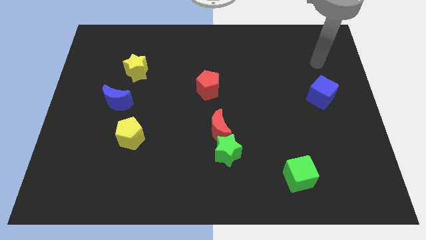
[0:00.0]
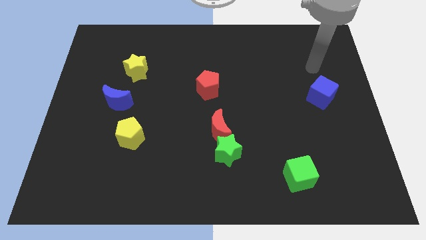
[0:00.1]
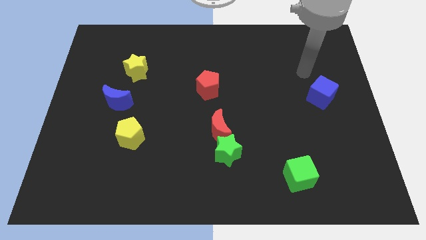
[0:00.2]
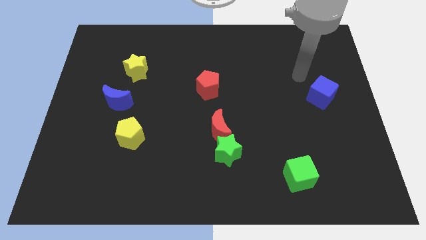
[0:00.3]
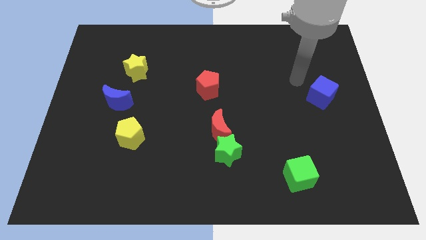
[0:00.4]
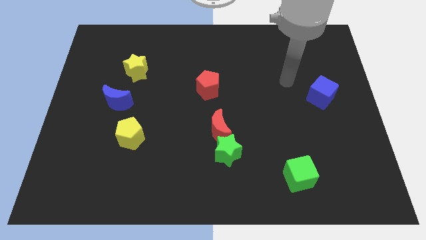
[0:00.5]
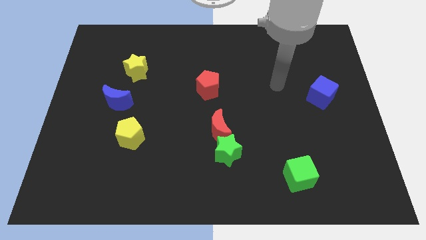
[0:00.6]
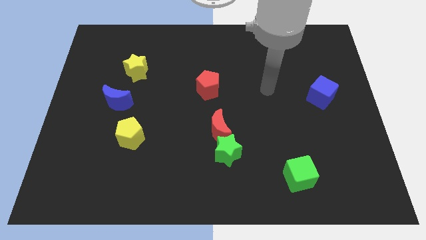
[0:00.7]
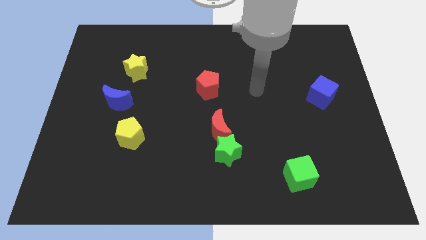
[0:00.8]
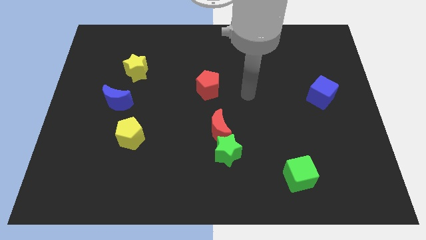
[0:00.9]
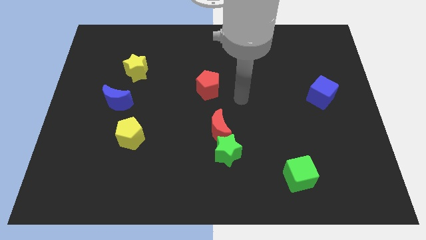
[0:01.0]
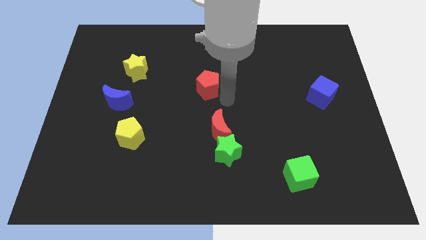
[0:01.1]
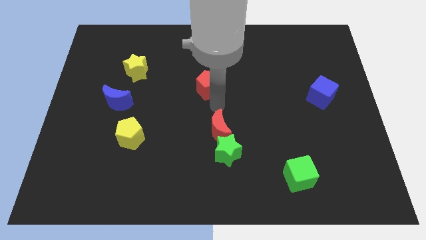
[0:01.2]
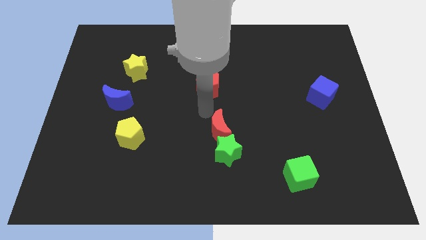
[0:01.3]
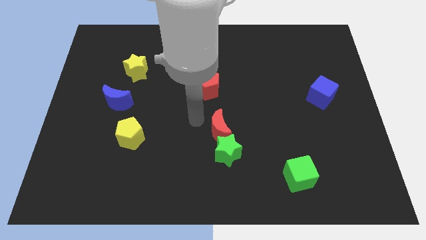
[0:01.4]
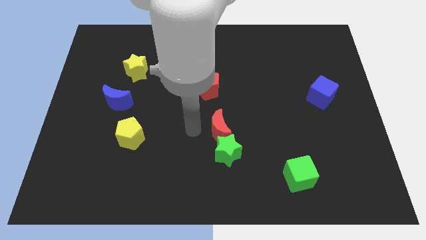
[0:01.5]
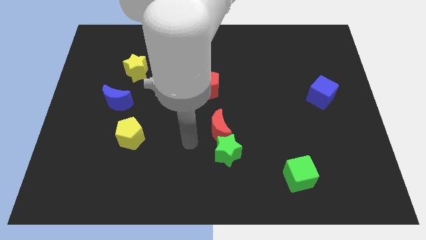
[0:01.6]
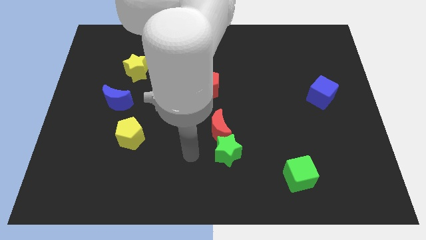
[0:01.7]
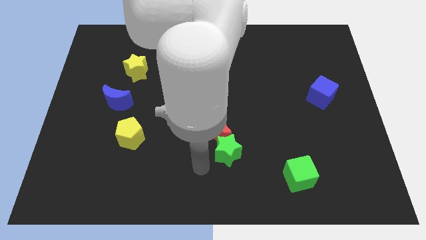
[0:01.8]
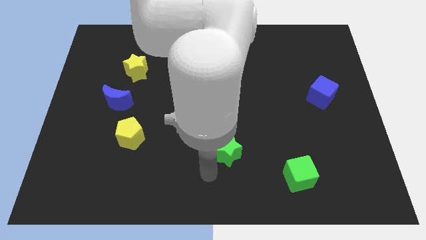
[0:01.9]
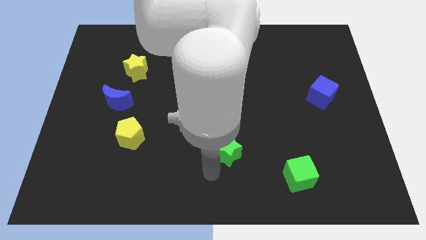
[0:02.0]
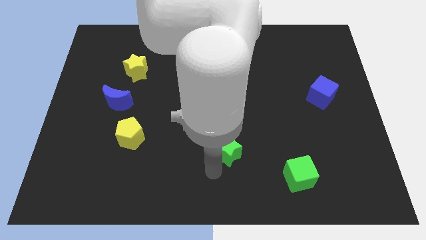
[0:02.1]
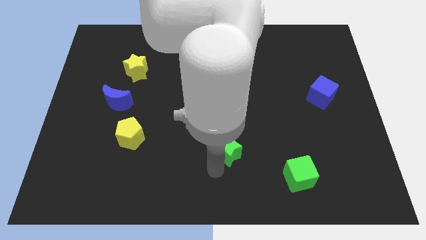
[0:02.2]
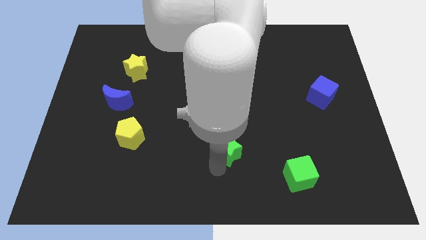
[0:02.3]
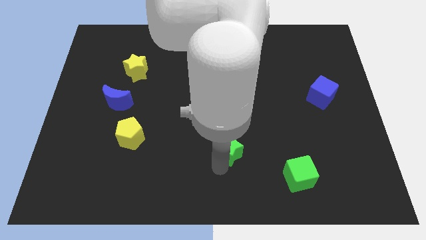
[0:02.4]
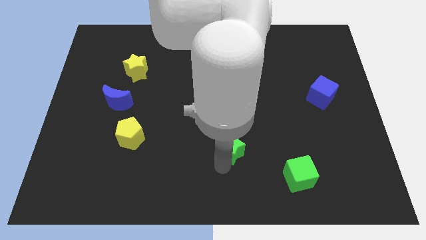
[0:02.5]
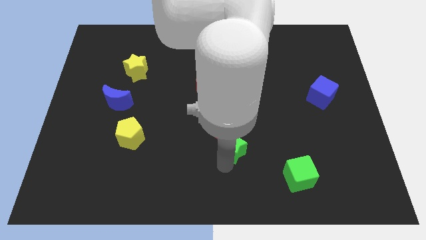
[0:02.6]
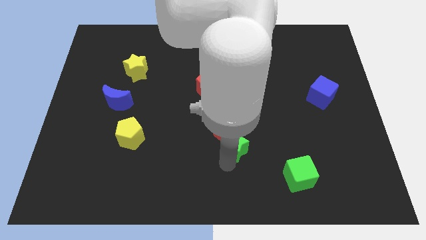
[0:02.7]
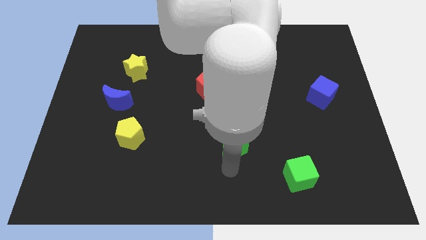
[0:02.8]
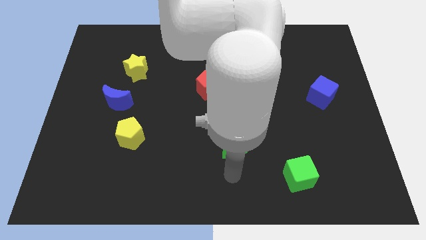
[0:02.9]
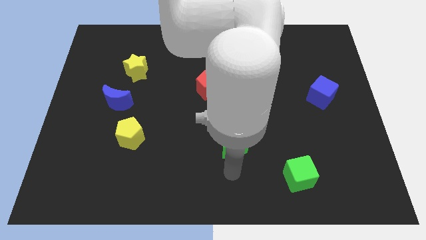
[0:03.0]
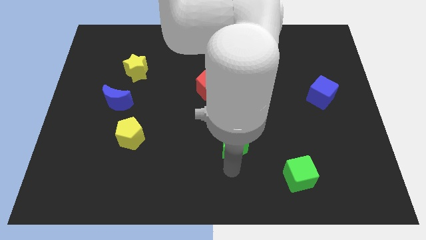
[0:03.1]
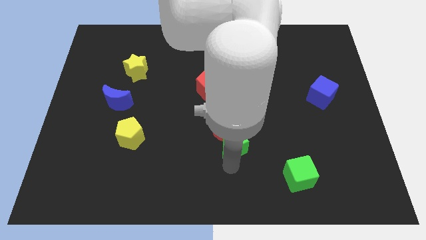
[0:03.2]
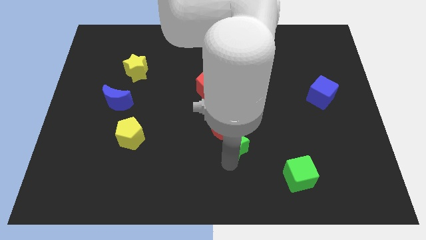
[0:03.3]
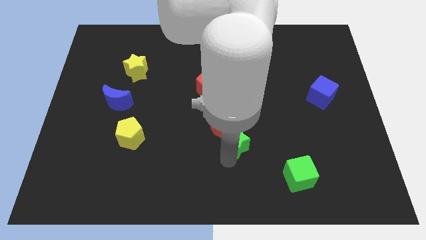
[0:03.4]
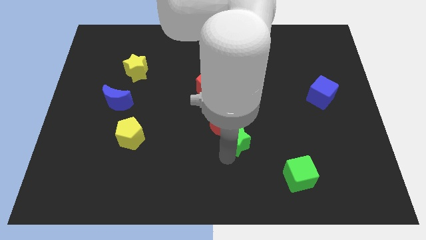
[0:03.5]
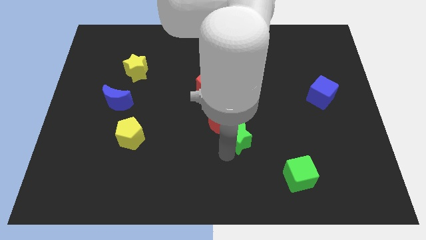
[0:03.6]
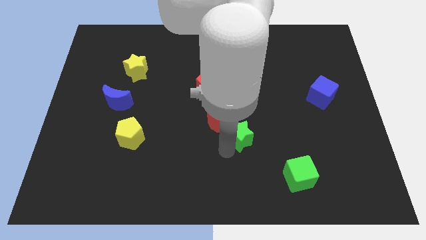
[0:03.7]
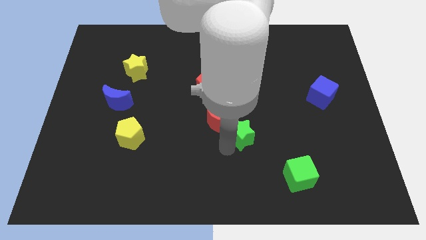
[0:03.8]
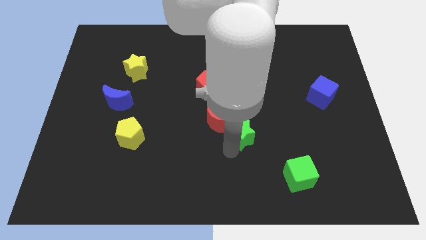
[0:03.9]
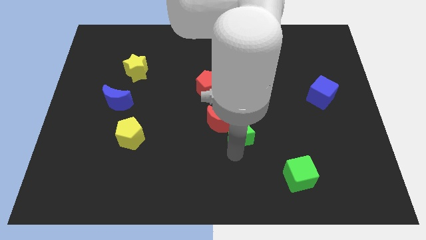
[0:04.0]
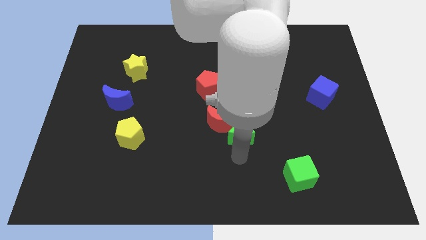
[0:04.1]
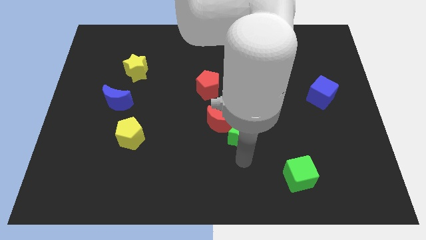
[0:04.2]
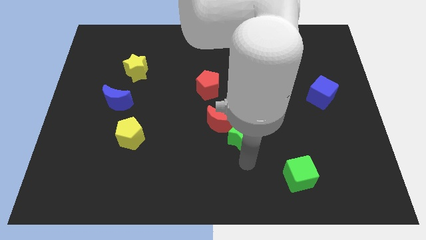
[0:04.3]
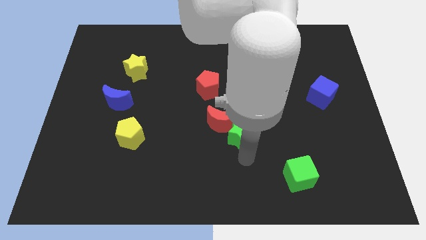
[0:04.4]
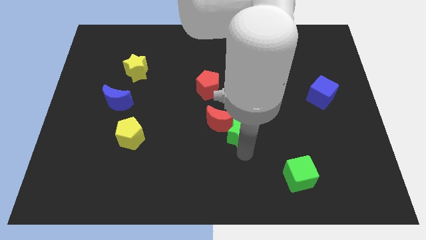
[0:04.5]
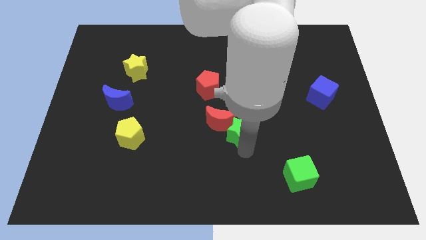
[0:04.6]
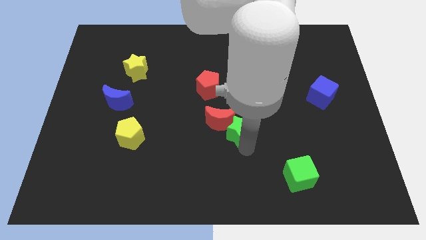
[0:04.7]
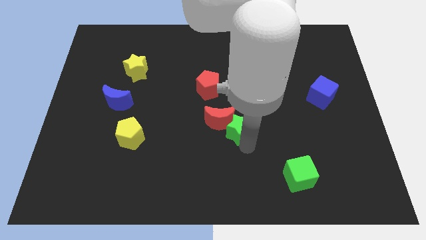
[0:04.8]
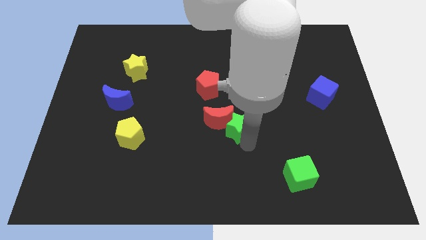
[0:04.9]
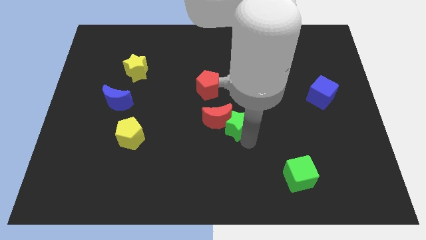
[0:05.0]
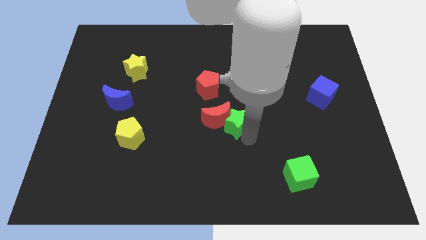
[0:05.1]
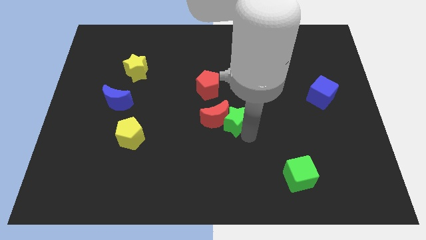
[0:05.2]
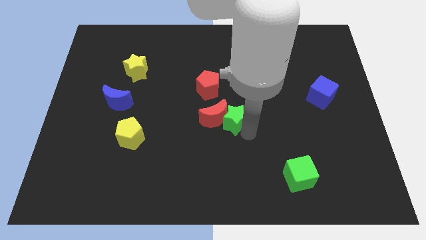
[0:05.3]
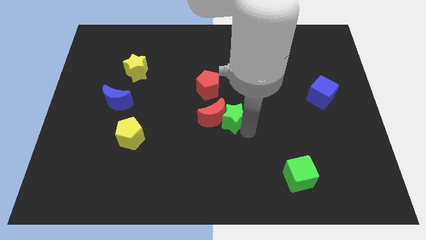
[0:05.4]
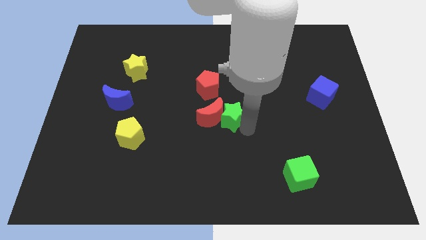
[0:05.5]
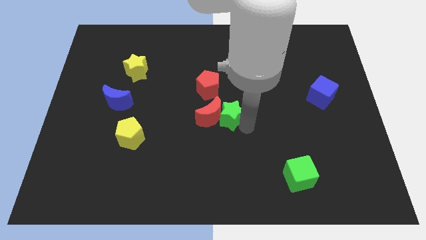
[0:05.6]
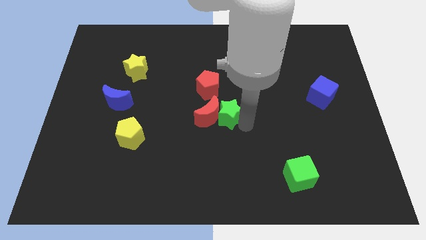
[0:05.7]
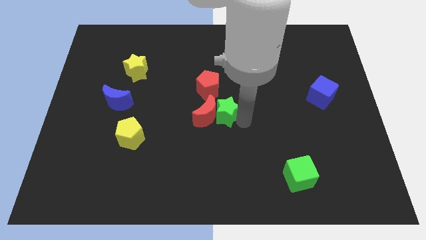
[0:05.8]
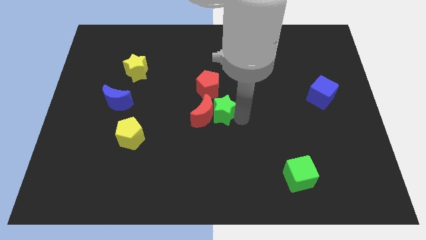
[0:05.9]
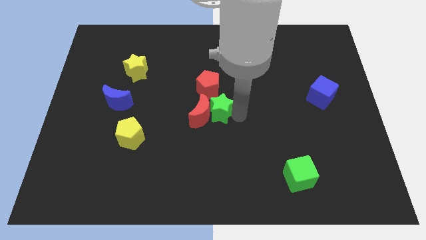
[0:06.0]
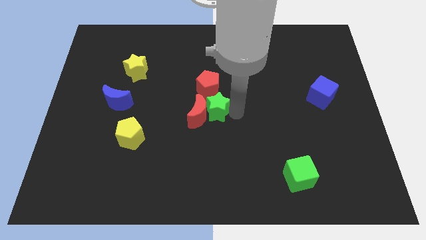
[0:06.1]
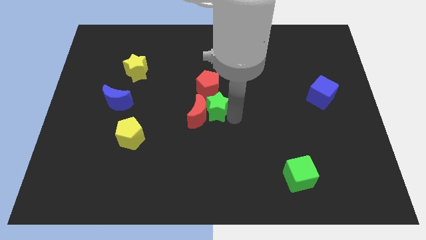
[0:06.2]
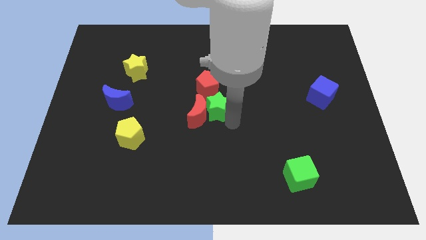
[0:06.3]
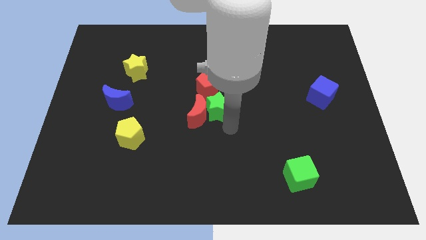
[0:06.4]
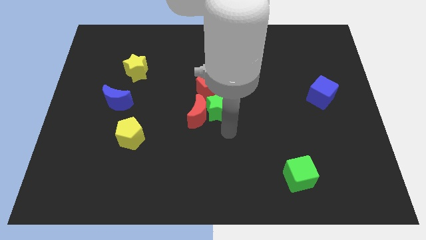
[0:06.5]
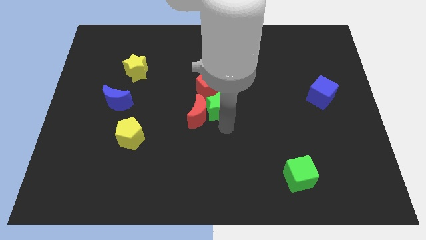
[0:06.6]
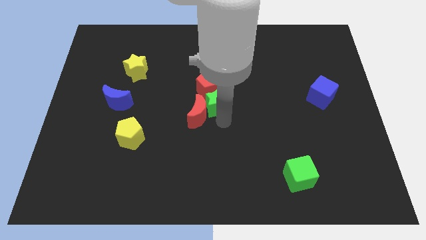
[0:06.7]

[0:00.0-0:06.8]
put the green star towards the red pentagon
